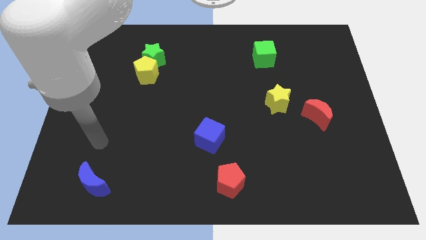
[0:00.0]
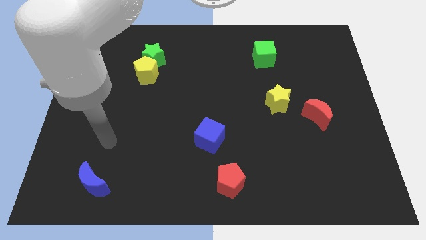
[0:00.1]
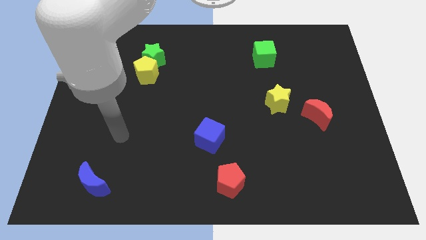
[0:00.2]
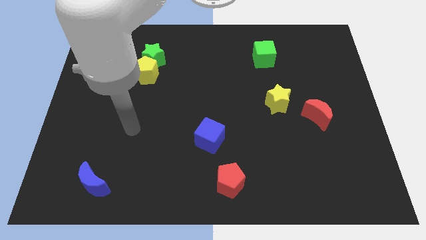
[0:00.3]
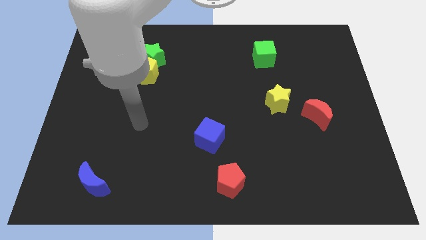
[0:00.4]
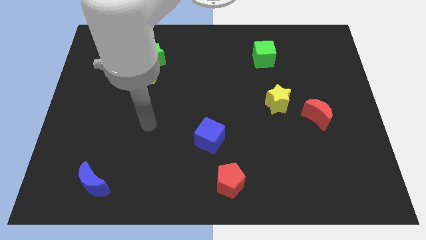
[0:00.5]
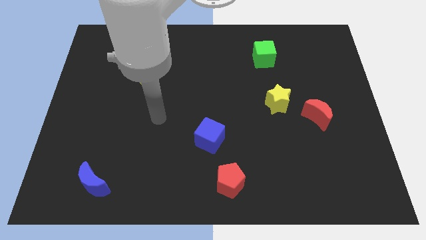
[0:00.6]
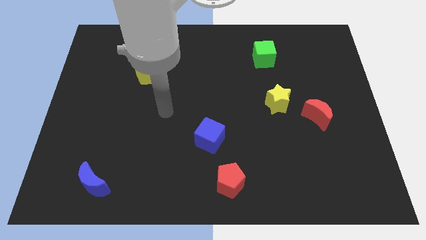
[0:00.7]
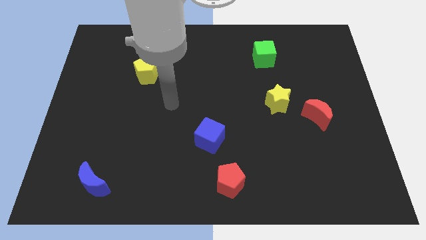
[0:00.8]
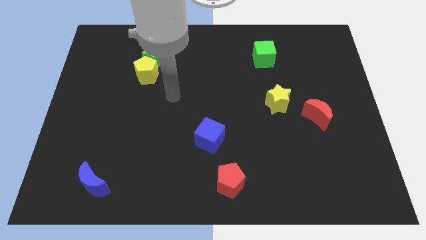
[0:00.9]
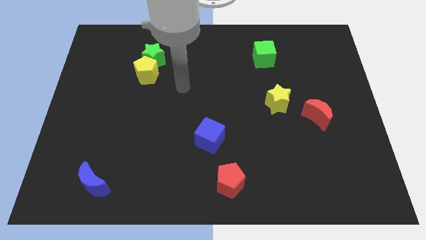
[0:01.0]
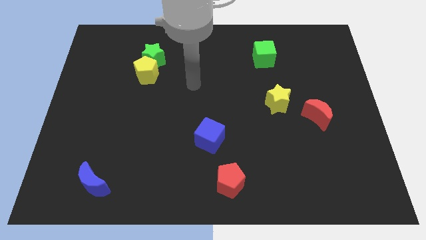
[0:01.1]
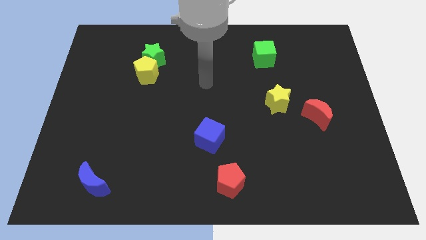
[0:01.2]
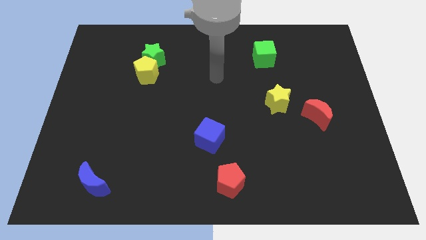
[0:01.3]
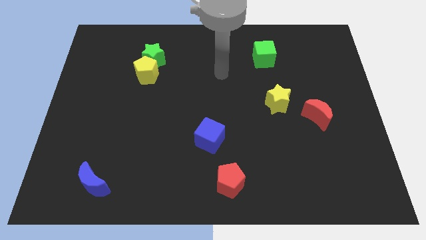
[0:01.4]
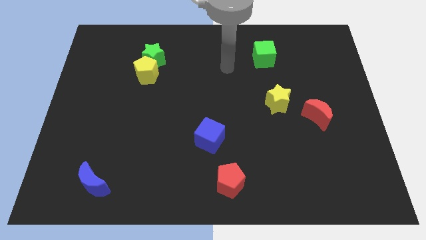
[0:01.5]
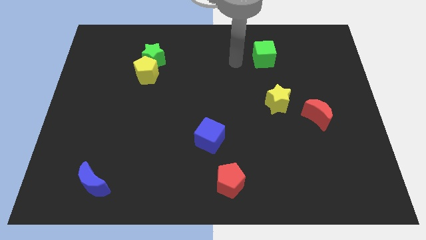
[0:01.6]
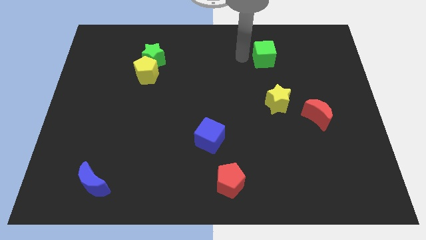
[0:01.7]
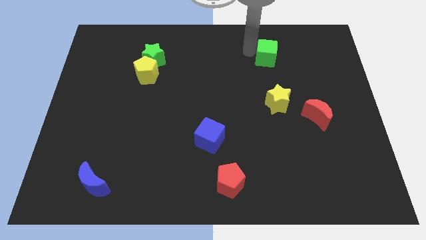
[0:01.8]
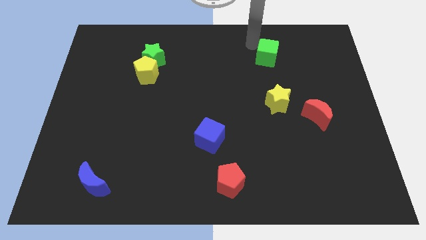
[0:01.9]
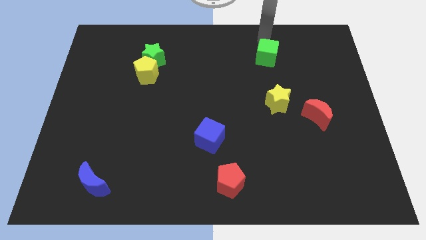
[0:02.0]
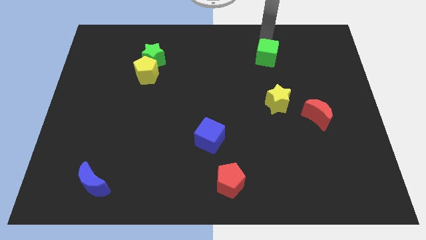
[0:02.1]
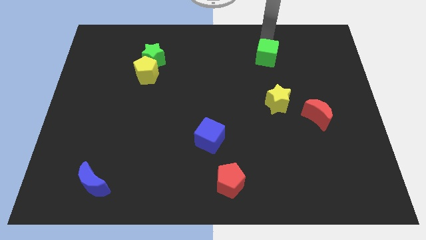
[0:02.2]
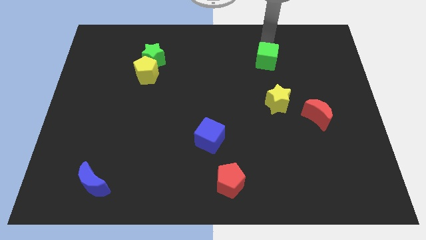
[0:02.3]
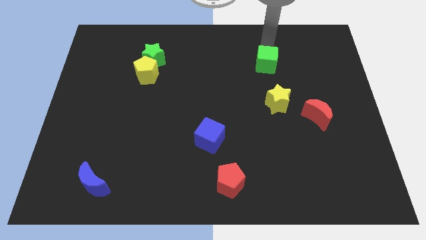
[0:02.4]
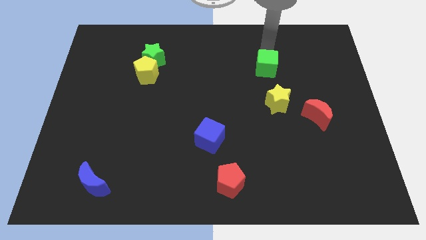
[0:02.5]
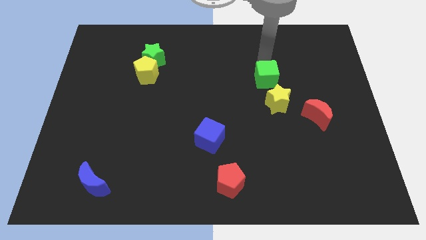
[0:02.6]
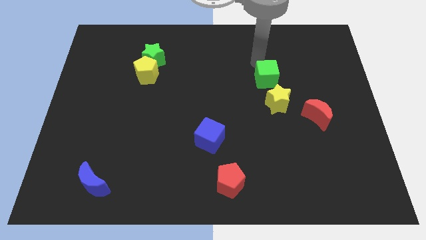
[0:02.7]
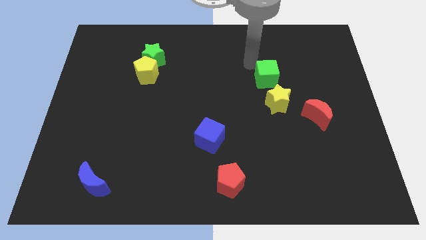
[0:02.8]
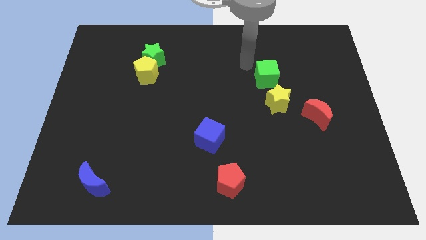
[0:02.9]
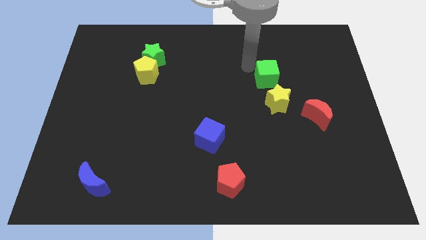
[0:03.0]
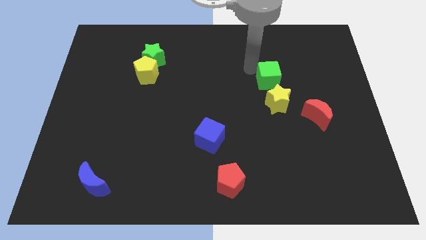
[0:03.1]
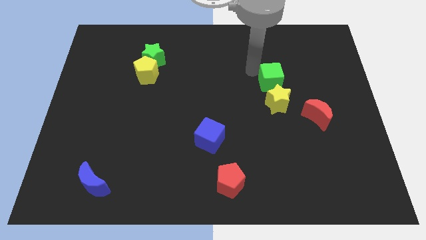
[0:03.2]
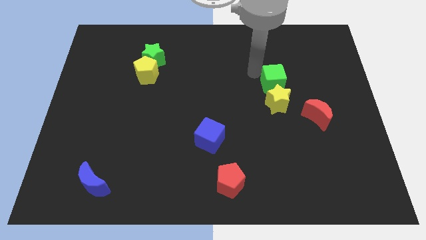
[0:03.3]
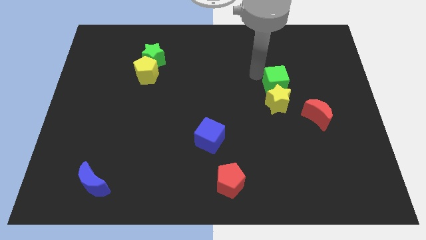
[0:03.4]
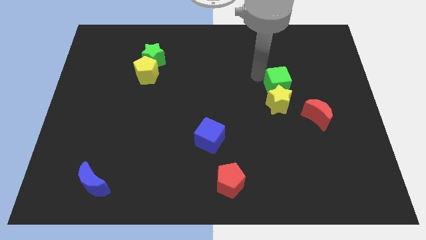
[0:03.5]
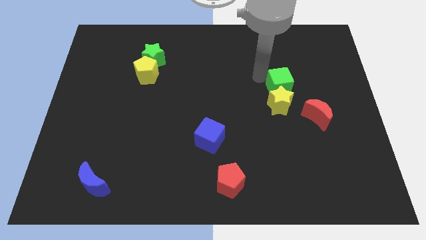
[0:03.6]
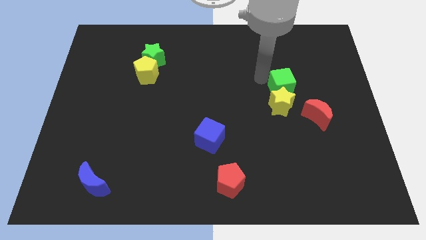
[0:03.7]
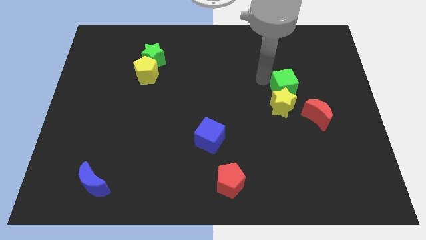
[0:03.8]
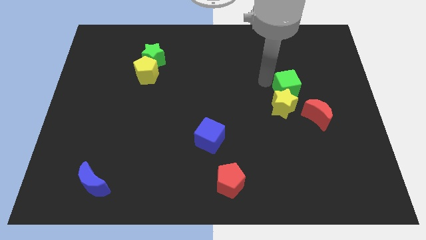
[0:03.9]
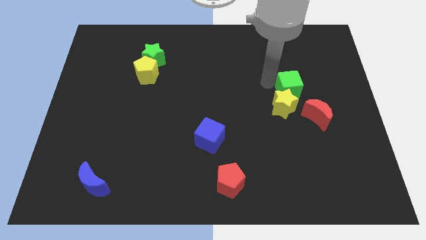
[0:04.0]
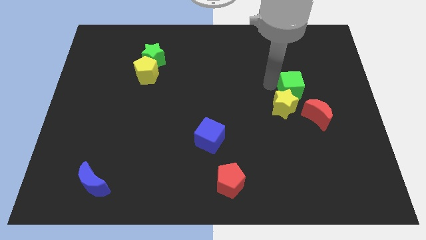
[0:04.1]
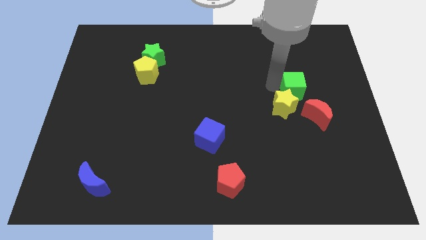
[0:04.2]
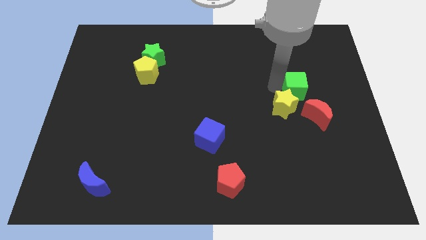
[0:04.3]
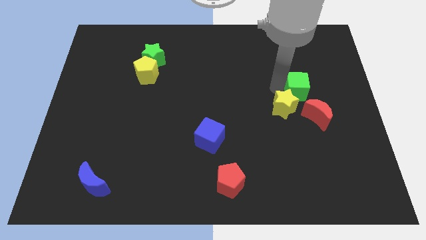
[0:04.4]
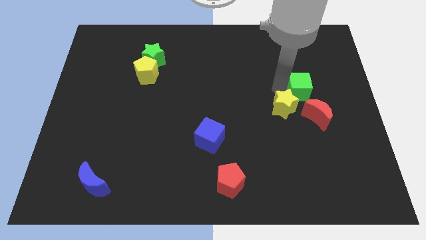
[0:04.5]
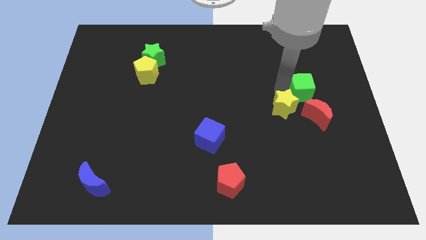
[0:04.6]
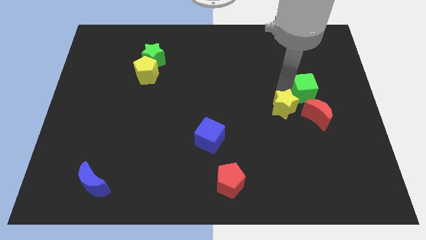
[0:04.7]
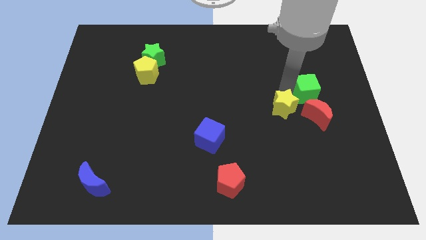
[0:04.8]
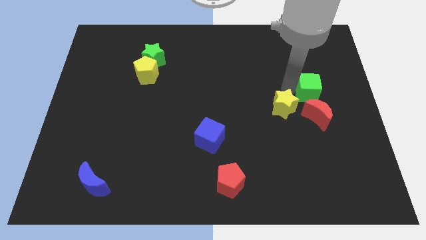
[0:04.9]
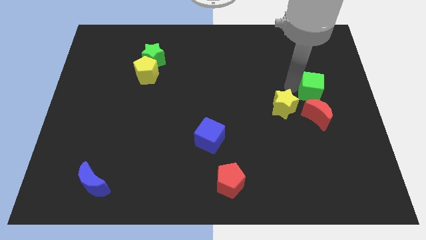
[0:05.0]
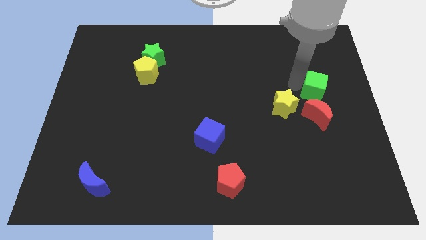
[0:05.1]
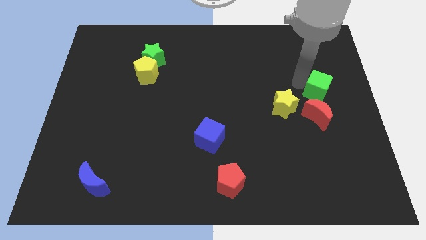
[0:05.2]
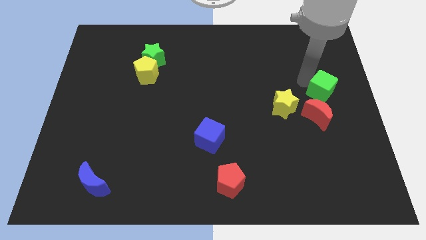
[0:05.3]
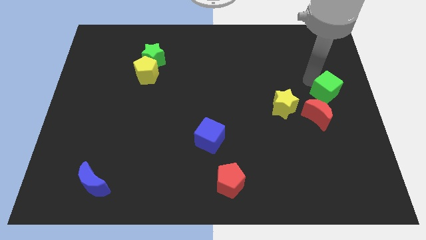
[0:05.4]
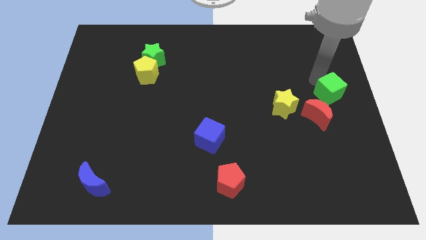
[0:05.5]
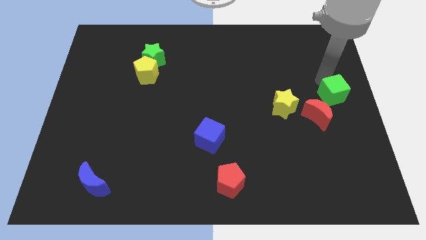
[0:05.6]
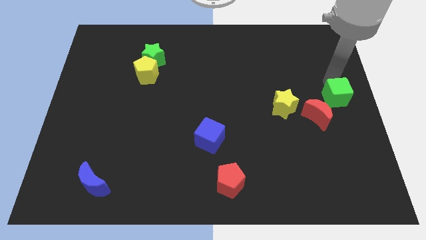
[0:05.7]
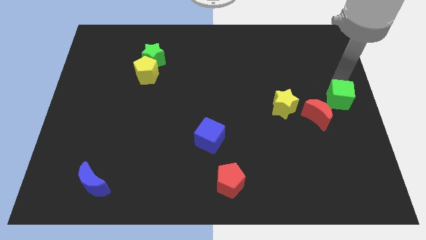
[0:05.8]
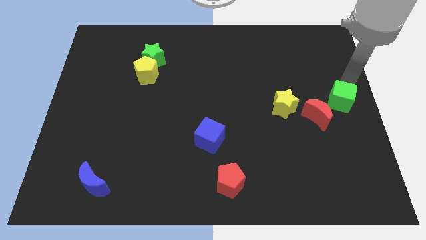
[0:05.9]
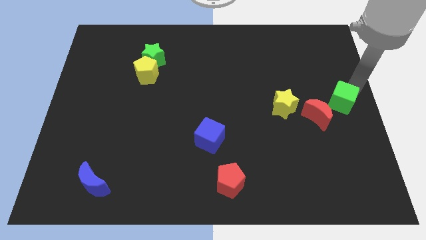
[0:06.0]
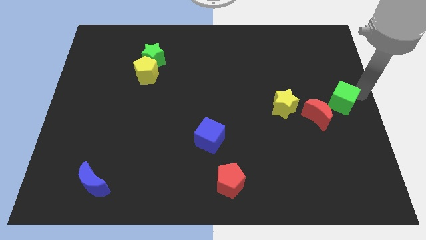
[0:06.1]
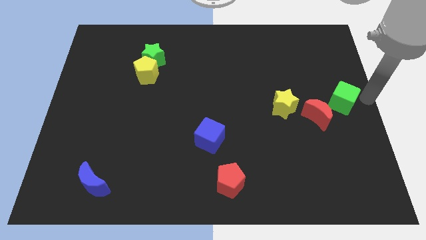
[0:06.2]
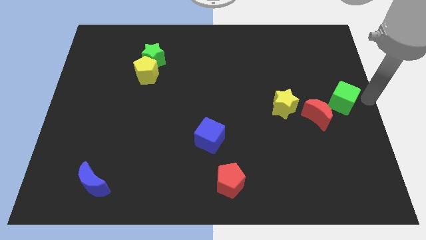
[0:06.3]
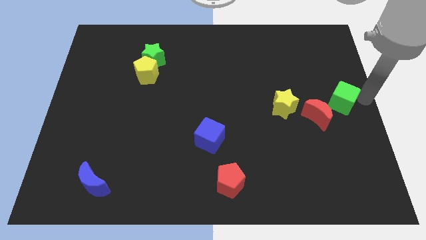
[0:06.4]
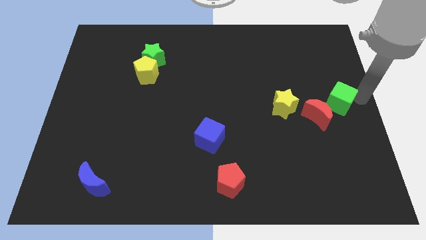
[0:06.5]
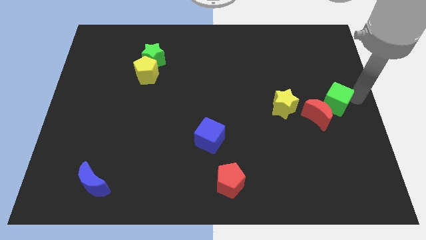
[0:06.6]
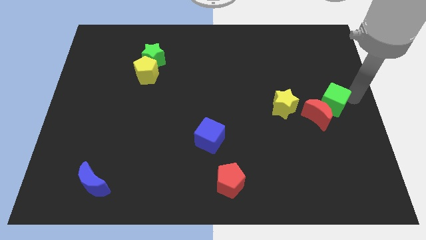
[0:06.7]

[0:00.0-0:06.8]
slide the green cube next to the red moon
